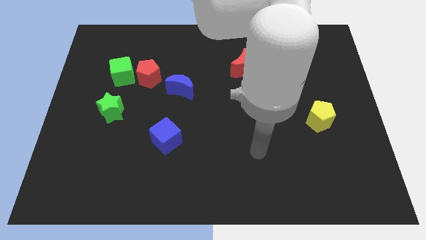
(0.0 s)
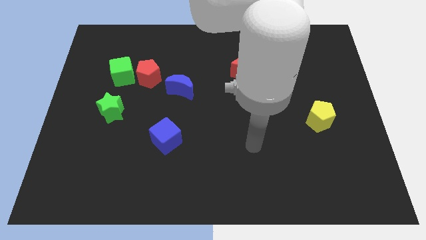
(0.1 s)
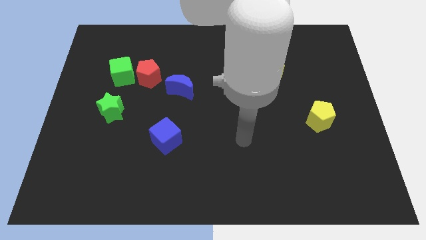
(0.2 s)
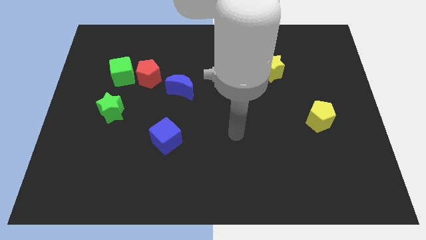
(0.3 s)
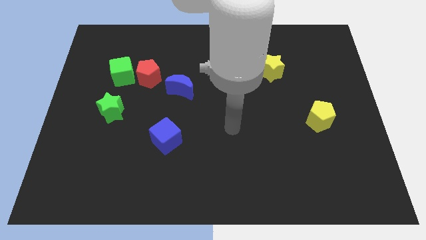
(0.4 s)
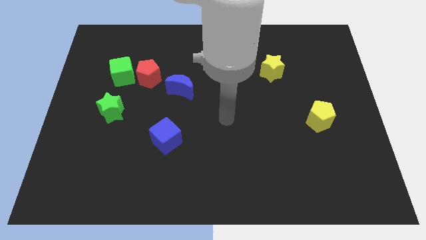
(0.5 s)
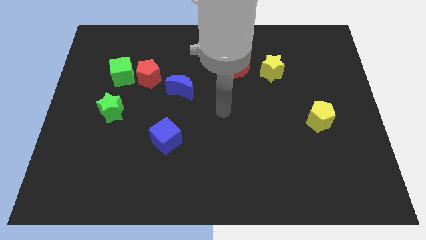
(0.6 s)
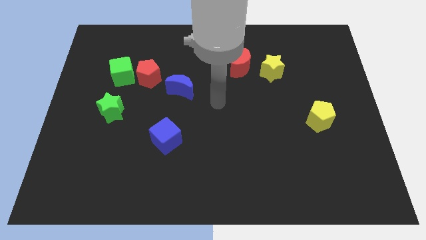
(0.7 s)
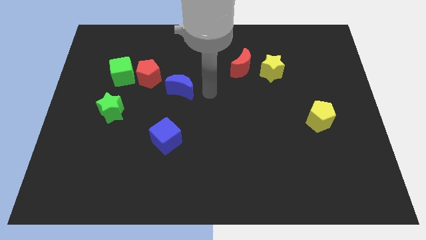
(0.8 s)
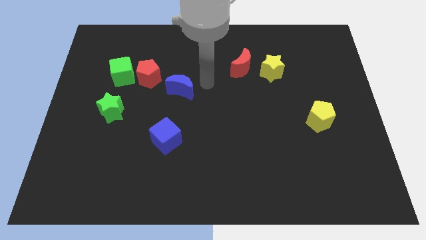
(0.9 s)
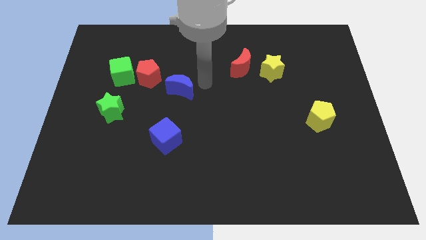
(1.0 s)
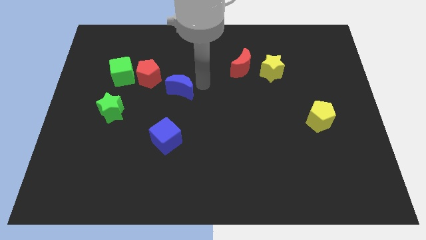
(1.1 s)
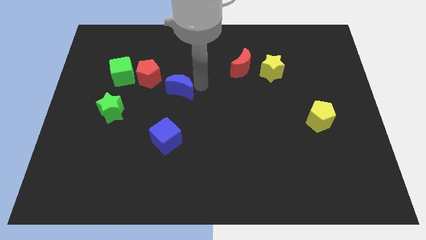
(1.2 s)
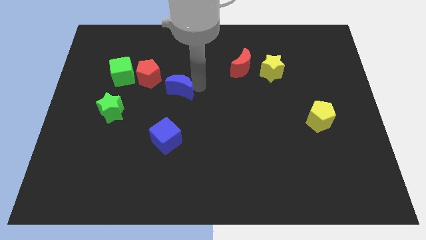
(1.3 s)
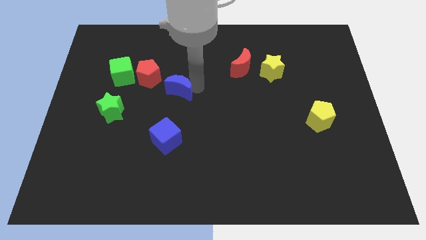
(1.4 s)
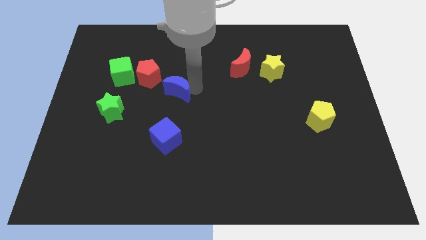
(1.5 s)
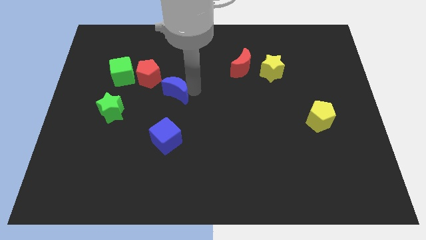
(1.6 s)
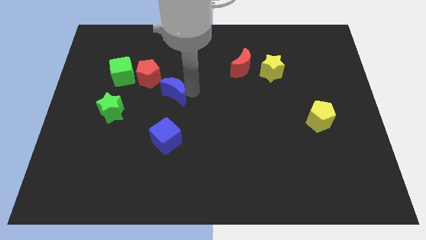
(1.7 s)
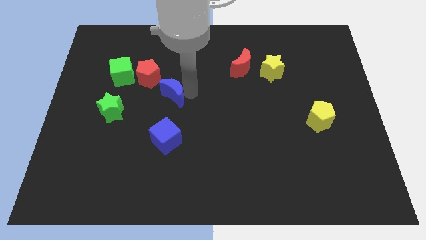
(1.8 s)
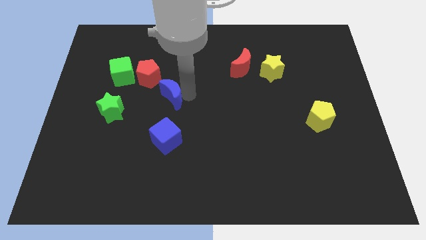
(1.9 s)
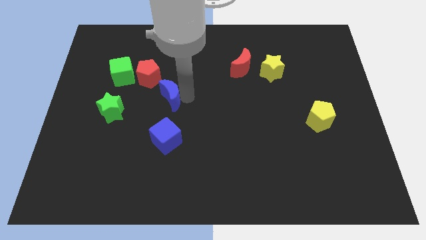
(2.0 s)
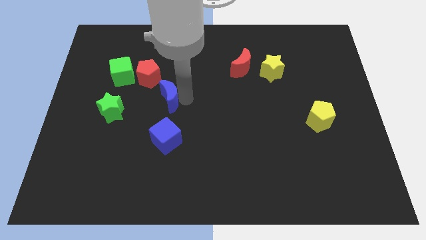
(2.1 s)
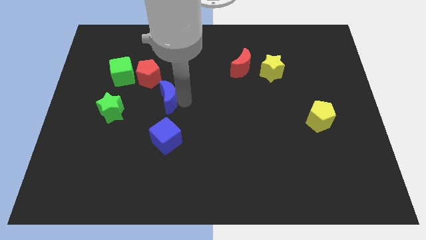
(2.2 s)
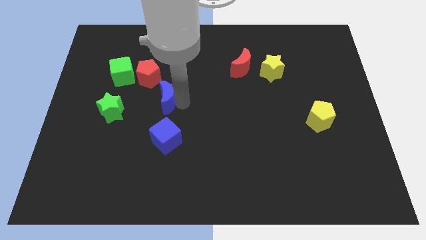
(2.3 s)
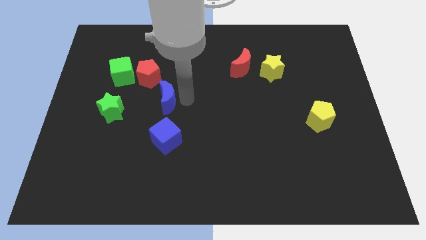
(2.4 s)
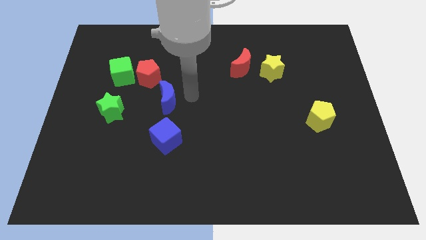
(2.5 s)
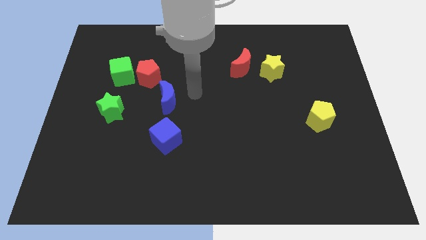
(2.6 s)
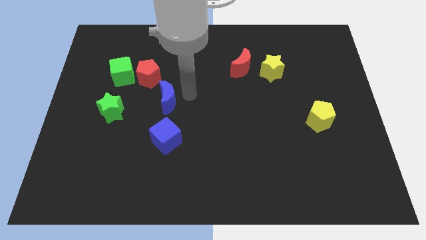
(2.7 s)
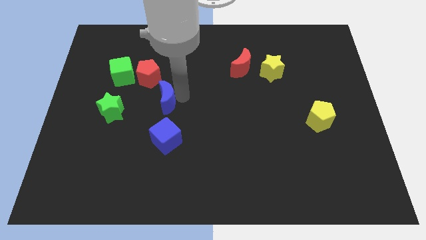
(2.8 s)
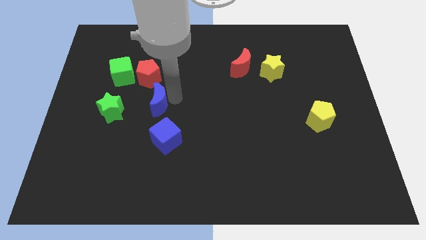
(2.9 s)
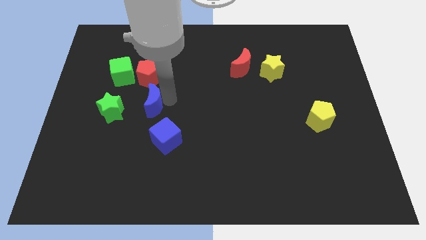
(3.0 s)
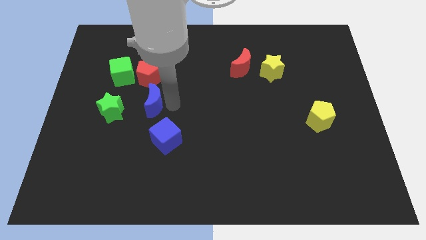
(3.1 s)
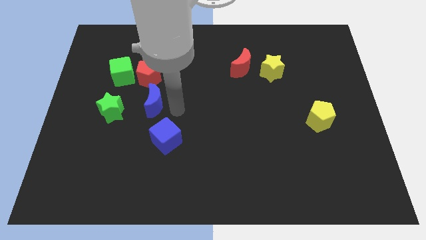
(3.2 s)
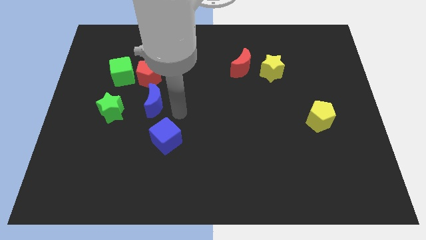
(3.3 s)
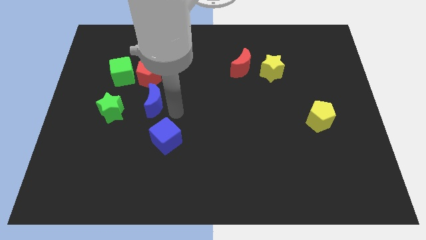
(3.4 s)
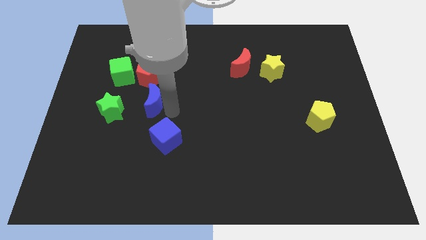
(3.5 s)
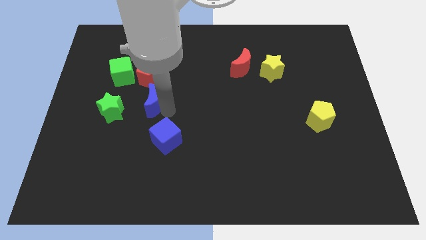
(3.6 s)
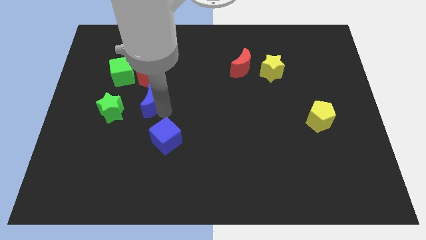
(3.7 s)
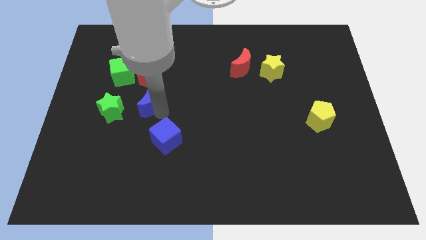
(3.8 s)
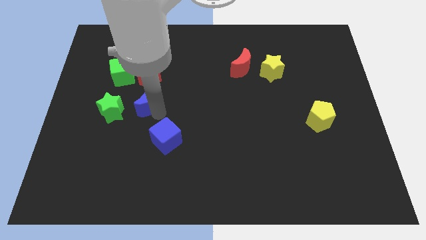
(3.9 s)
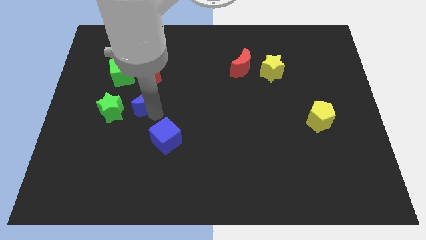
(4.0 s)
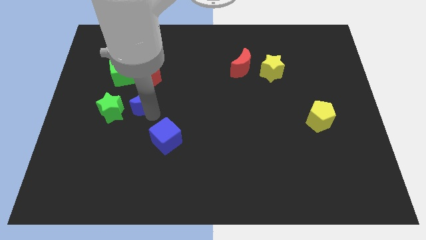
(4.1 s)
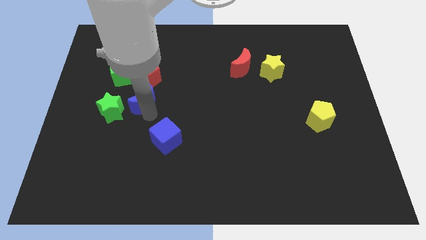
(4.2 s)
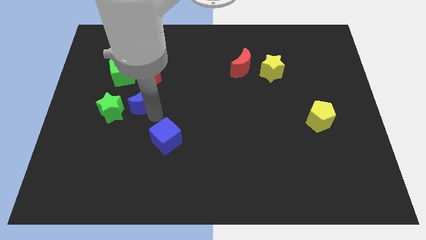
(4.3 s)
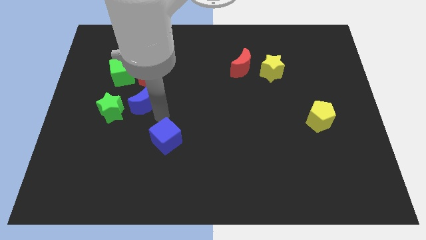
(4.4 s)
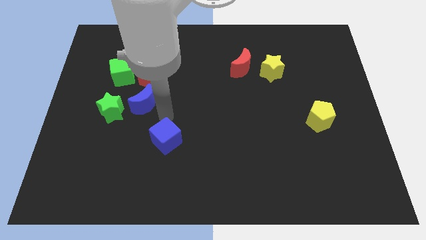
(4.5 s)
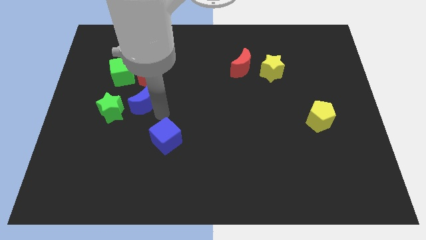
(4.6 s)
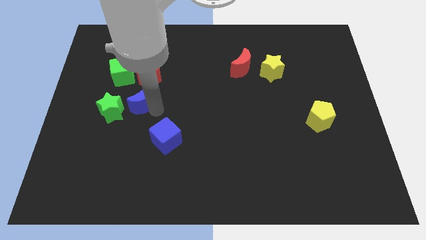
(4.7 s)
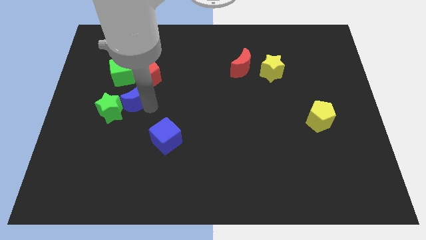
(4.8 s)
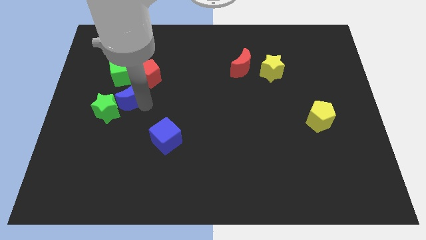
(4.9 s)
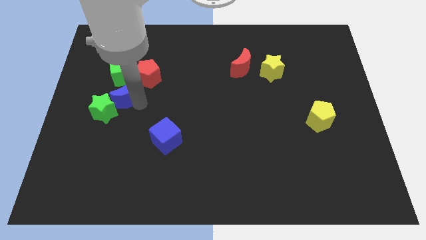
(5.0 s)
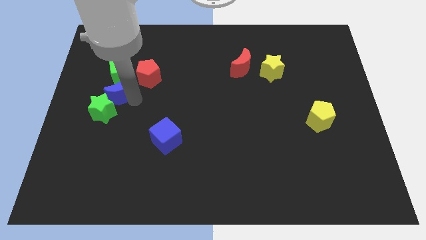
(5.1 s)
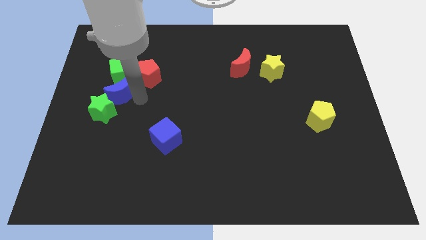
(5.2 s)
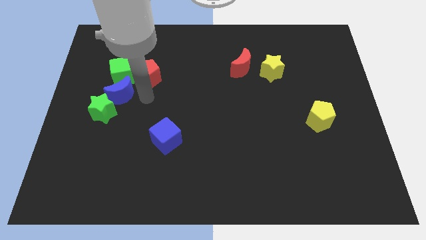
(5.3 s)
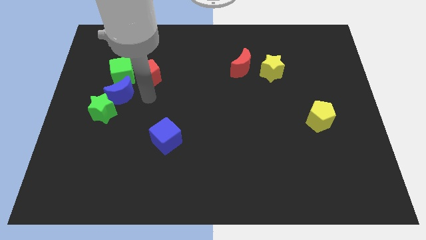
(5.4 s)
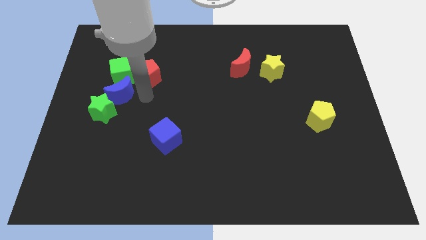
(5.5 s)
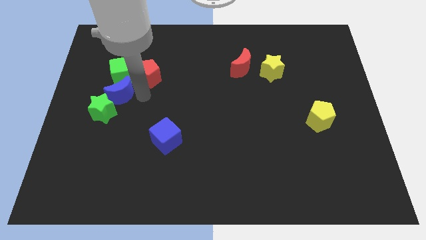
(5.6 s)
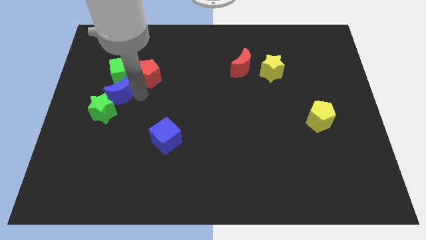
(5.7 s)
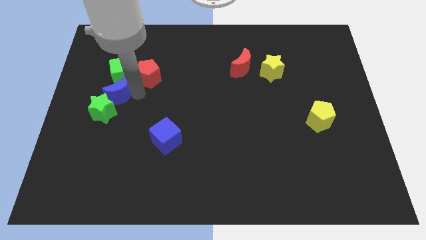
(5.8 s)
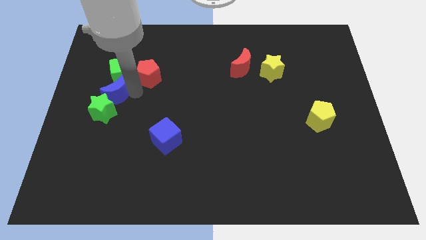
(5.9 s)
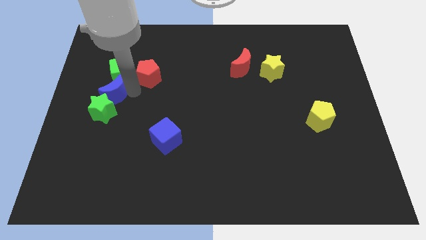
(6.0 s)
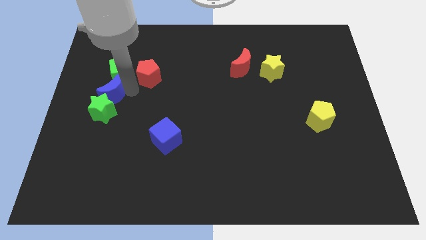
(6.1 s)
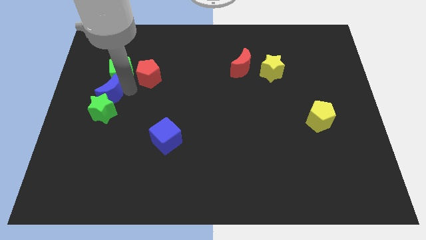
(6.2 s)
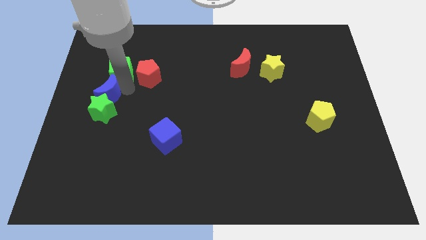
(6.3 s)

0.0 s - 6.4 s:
move the blue moon to the left side

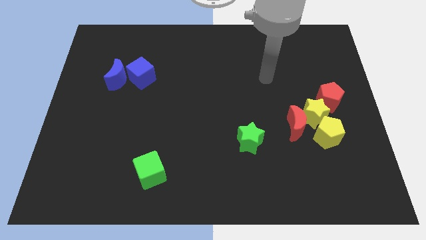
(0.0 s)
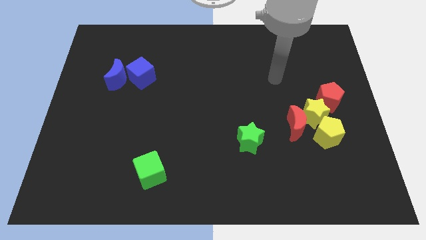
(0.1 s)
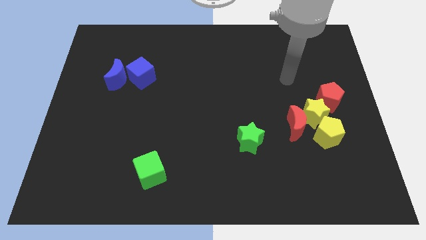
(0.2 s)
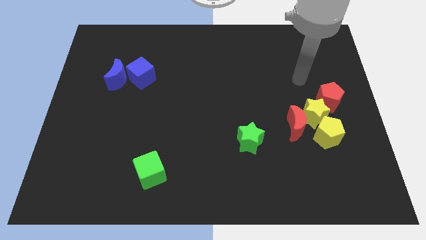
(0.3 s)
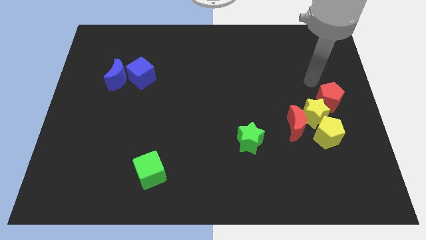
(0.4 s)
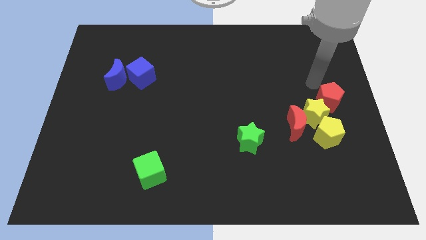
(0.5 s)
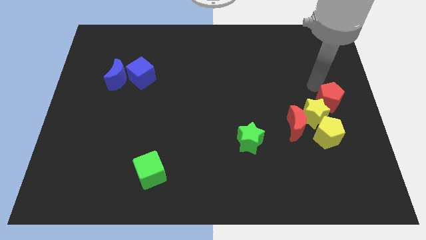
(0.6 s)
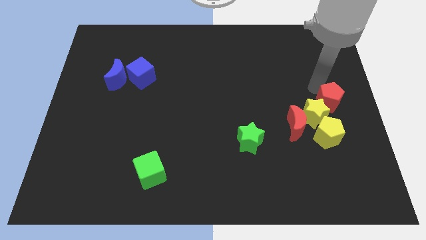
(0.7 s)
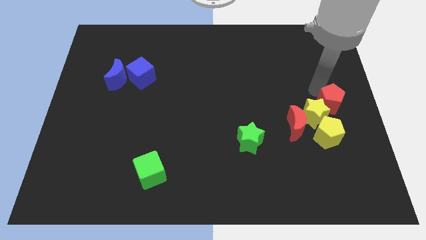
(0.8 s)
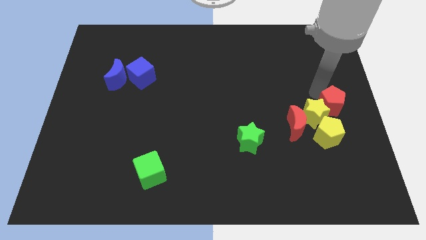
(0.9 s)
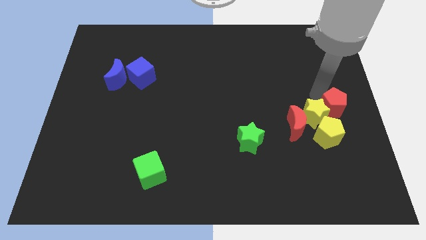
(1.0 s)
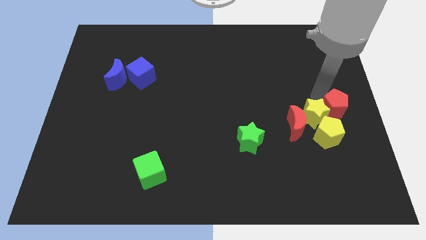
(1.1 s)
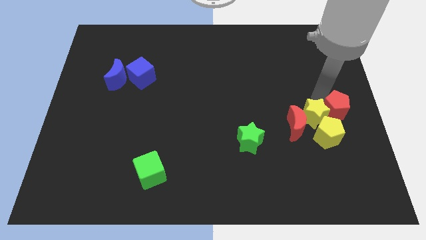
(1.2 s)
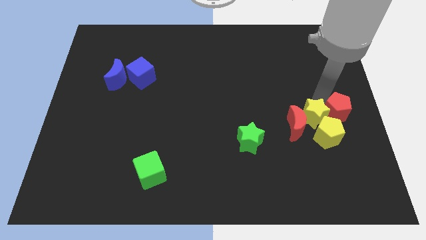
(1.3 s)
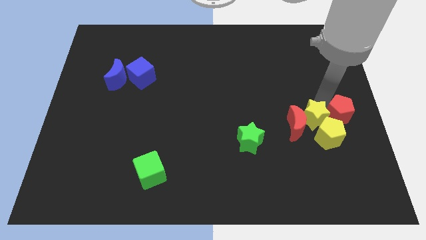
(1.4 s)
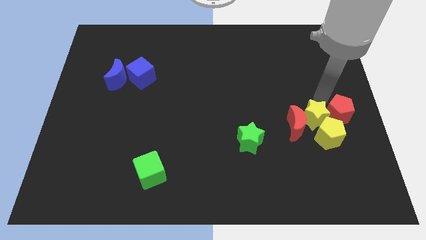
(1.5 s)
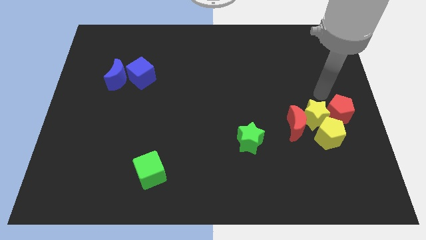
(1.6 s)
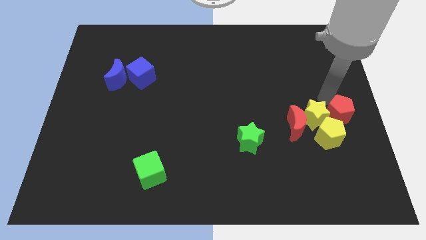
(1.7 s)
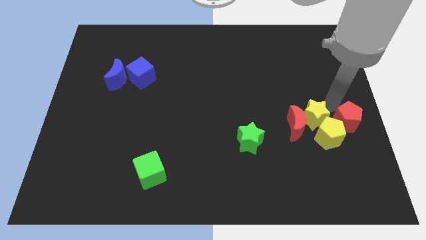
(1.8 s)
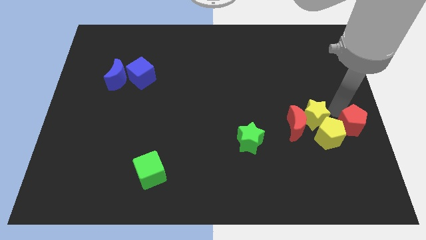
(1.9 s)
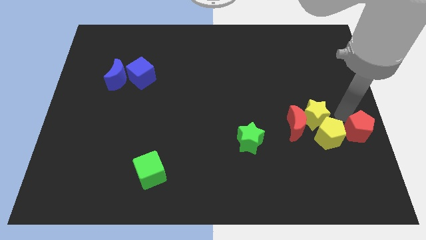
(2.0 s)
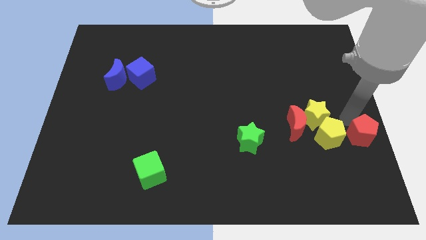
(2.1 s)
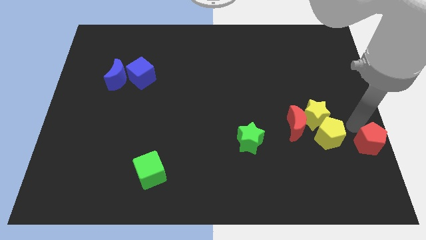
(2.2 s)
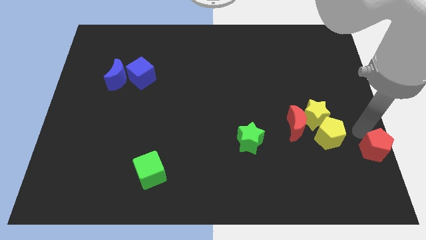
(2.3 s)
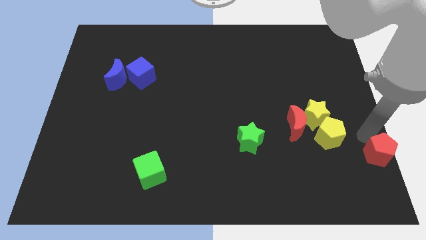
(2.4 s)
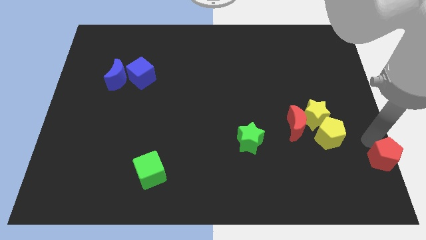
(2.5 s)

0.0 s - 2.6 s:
put the red pentagon to the lower right corner
